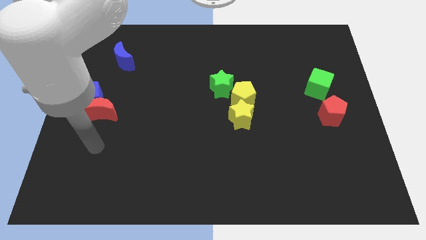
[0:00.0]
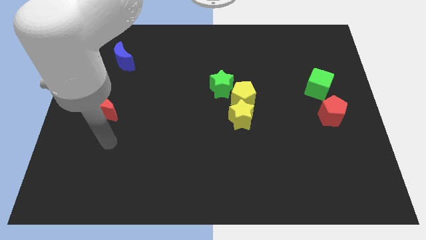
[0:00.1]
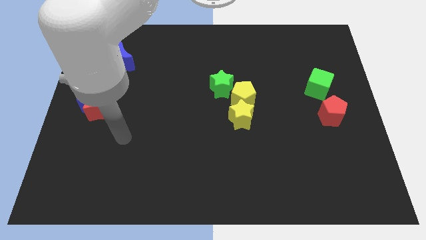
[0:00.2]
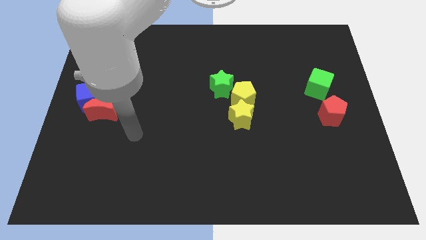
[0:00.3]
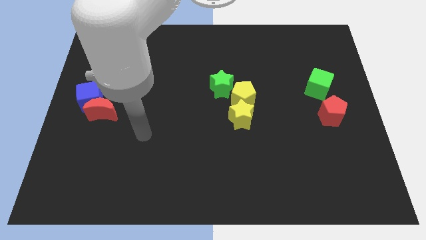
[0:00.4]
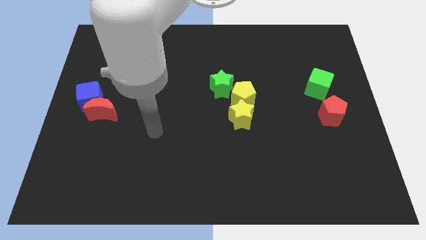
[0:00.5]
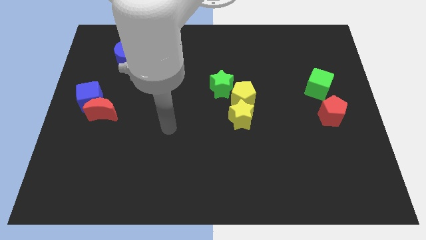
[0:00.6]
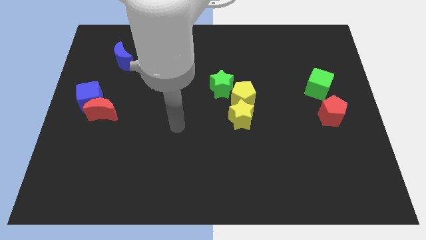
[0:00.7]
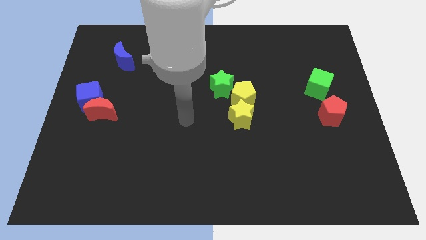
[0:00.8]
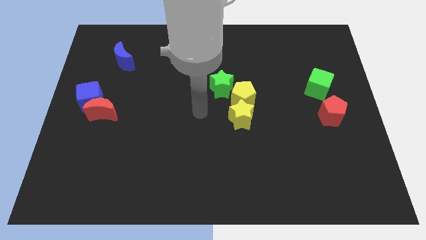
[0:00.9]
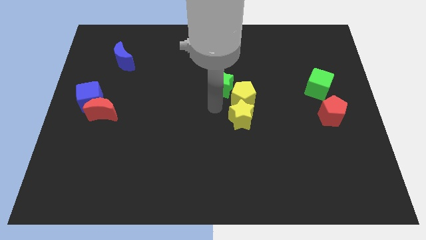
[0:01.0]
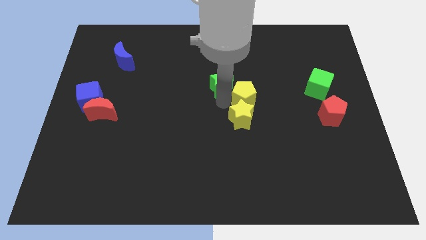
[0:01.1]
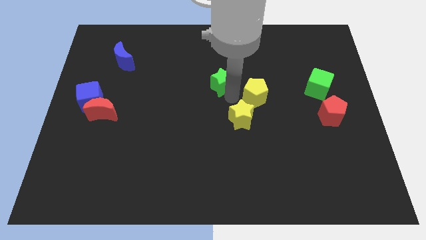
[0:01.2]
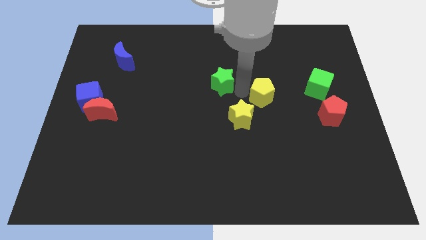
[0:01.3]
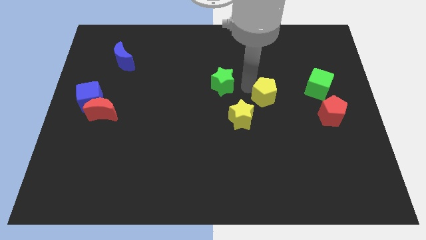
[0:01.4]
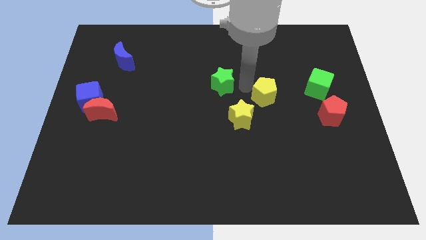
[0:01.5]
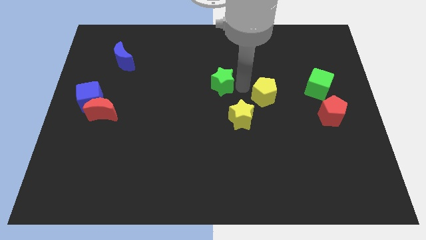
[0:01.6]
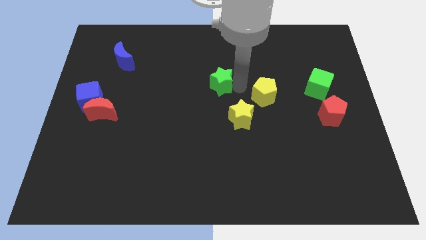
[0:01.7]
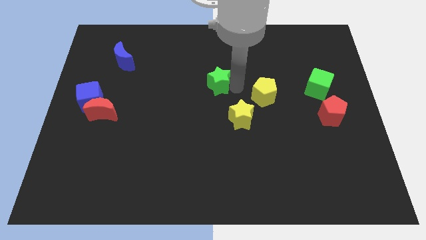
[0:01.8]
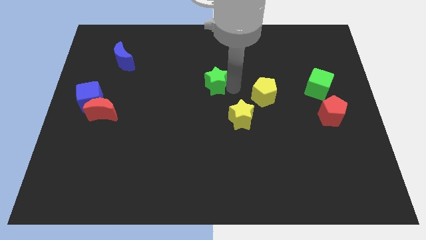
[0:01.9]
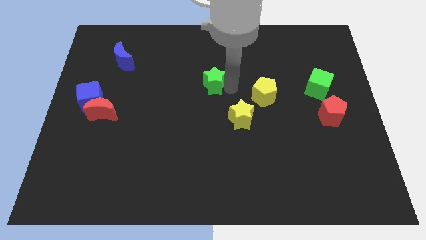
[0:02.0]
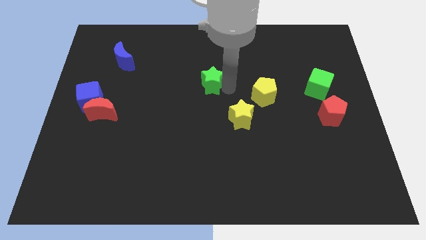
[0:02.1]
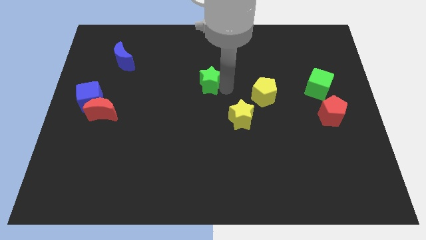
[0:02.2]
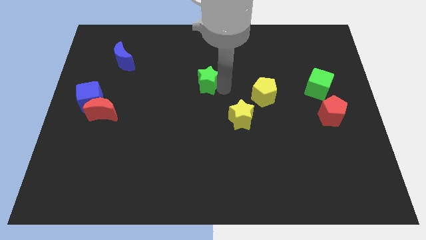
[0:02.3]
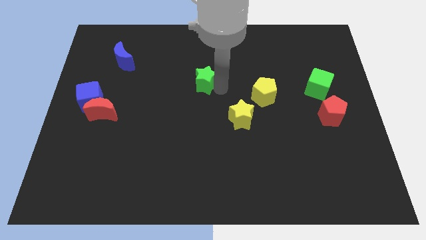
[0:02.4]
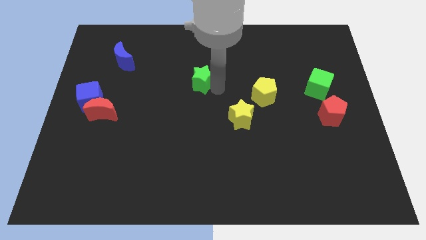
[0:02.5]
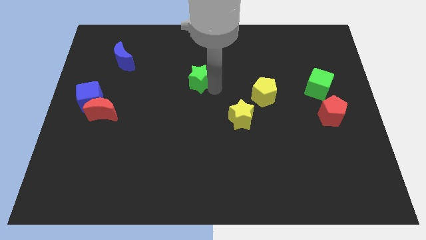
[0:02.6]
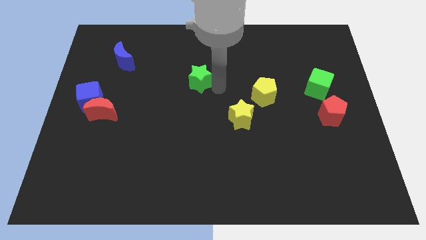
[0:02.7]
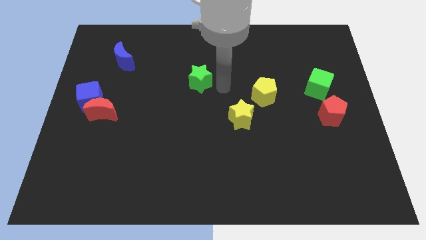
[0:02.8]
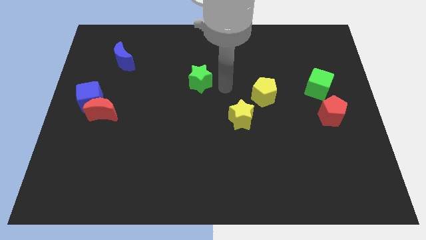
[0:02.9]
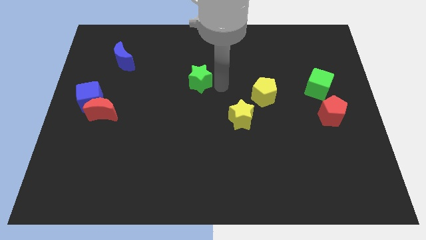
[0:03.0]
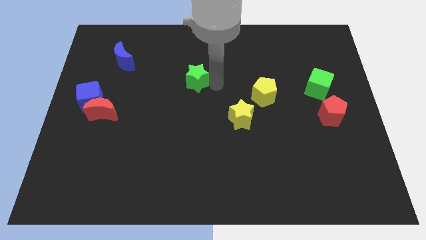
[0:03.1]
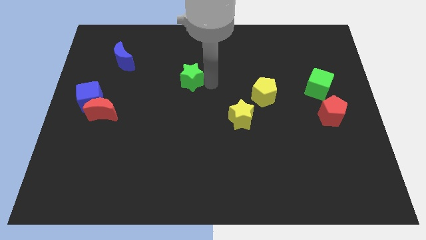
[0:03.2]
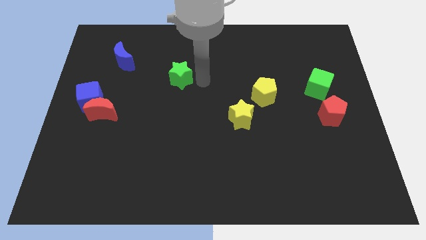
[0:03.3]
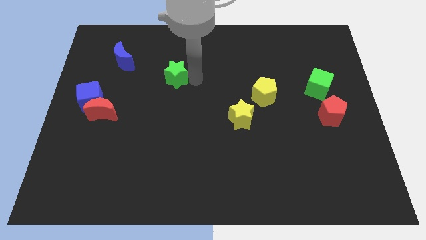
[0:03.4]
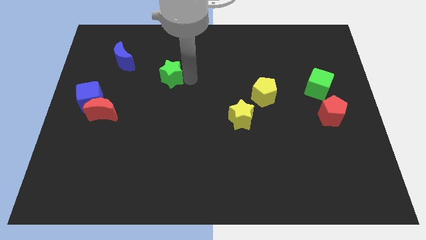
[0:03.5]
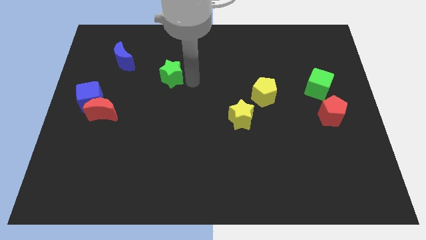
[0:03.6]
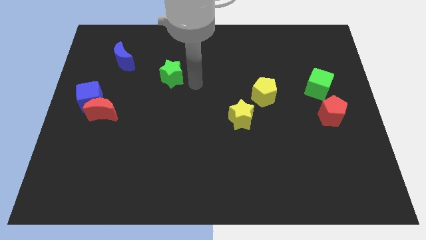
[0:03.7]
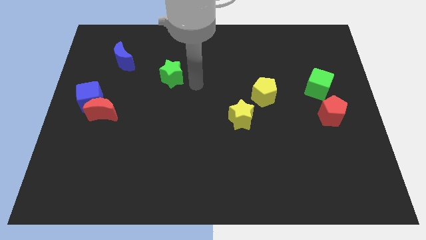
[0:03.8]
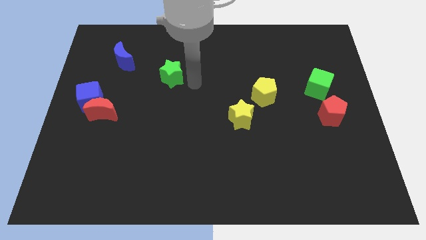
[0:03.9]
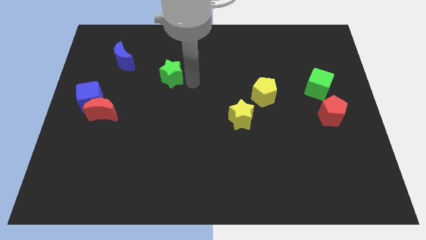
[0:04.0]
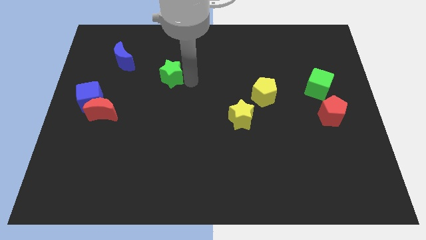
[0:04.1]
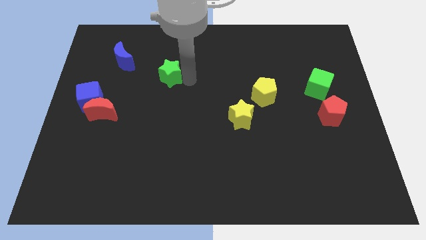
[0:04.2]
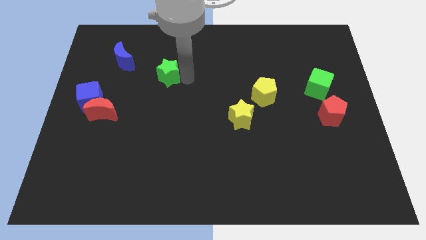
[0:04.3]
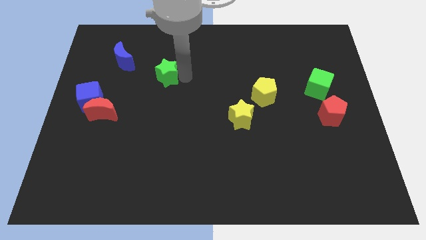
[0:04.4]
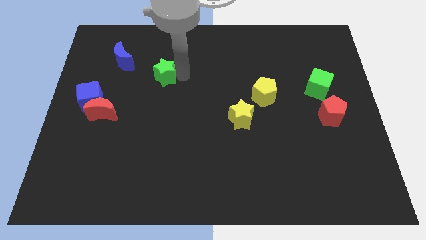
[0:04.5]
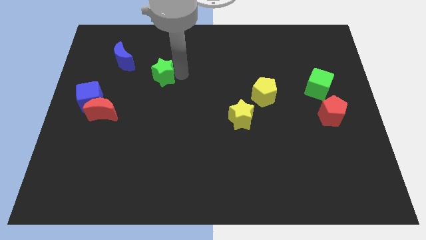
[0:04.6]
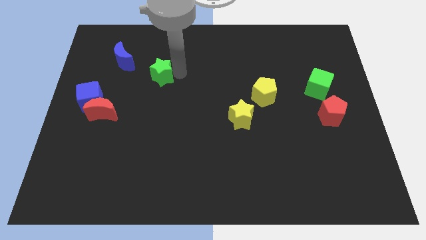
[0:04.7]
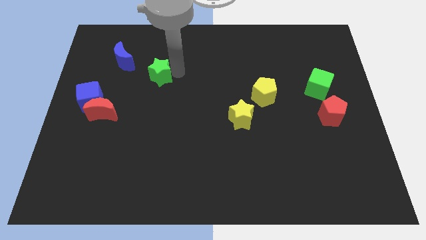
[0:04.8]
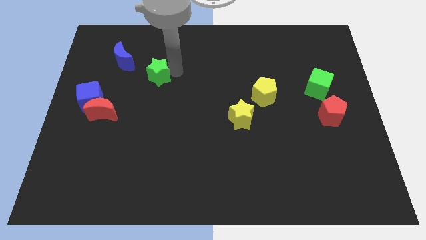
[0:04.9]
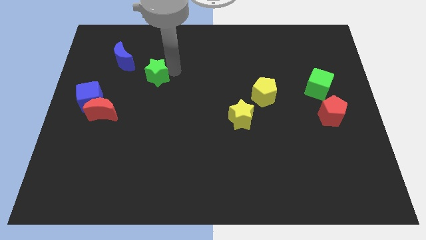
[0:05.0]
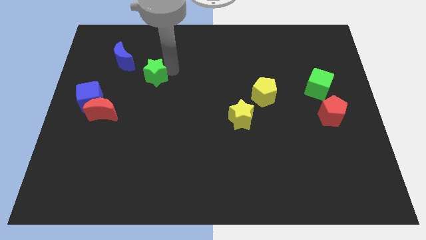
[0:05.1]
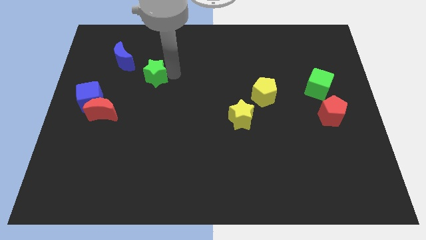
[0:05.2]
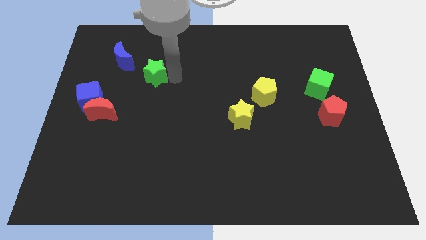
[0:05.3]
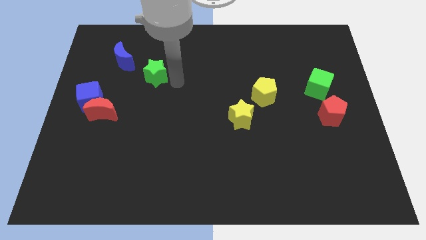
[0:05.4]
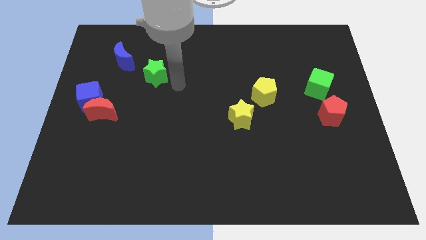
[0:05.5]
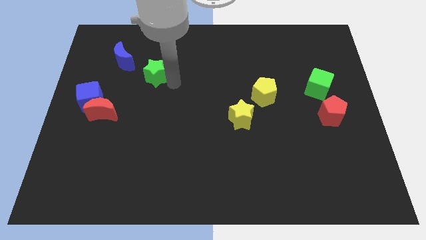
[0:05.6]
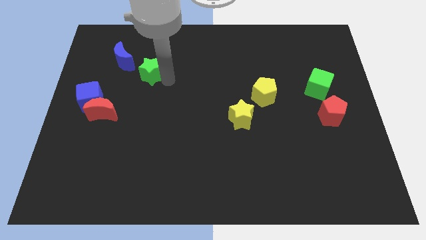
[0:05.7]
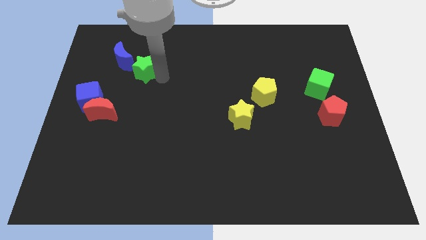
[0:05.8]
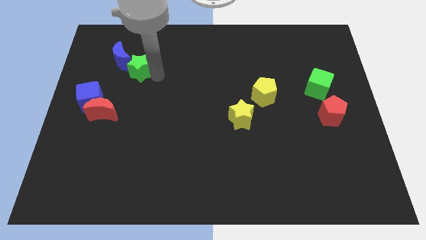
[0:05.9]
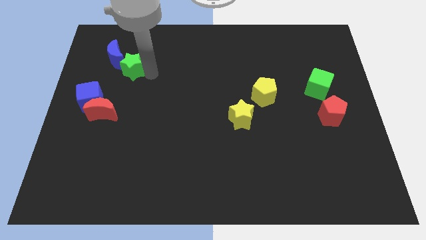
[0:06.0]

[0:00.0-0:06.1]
put the green star to the blue moon
